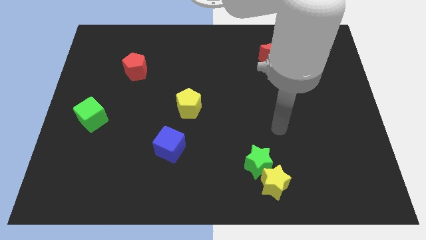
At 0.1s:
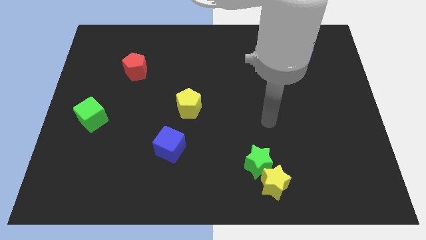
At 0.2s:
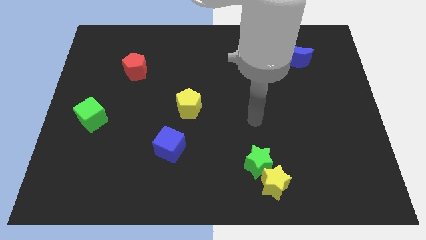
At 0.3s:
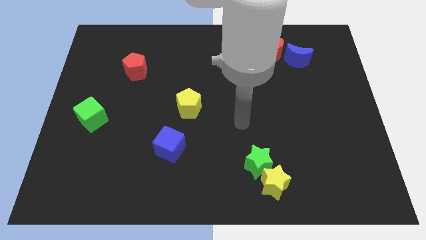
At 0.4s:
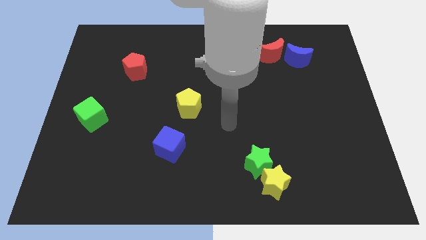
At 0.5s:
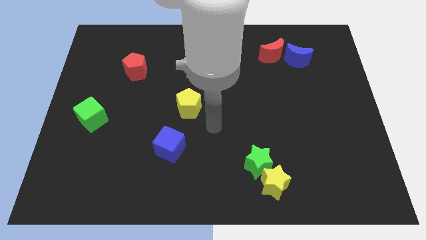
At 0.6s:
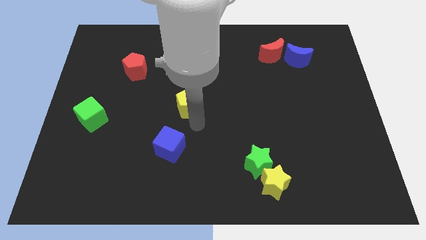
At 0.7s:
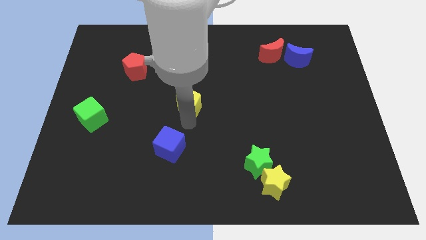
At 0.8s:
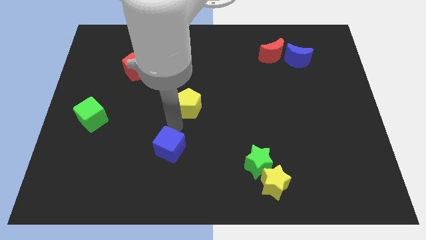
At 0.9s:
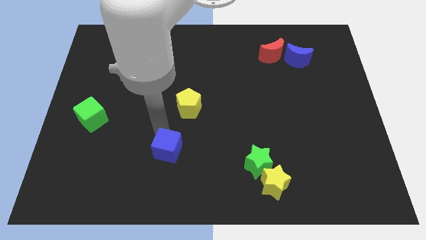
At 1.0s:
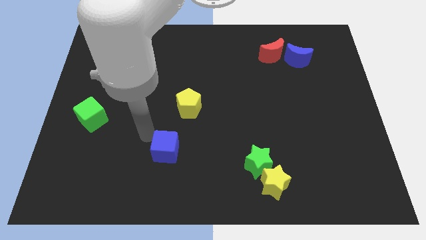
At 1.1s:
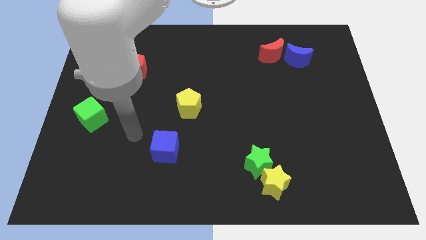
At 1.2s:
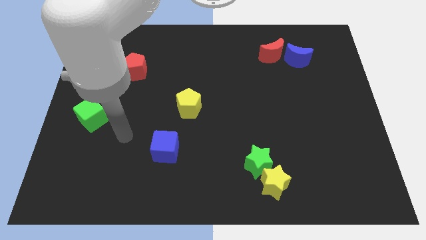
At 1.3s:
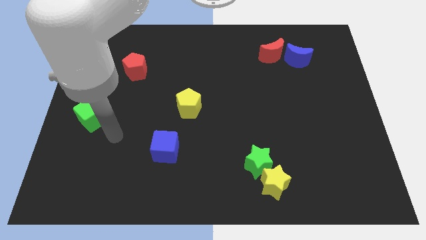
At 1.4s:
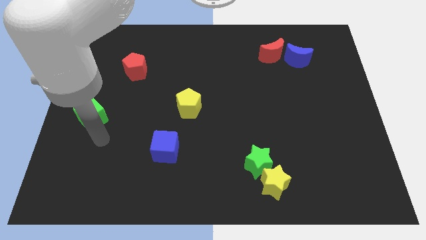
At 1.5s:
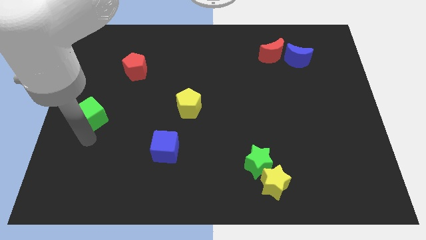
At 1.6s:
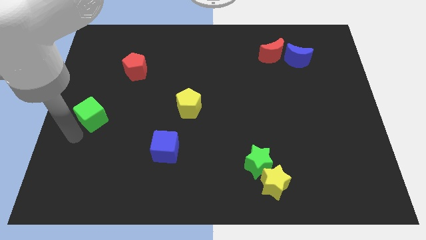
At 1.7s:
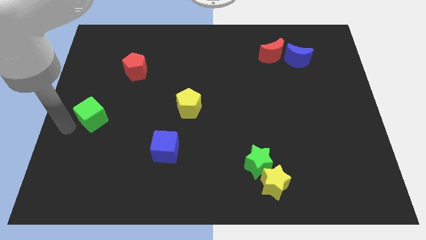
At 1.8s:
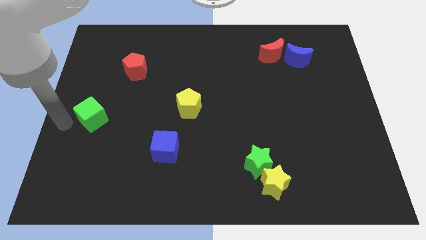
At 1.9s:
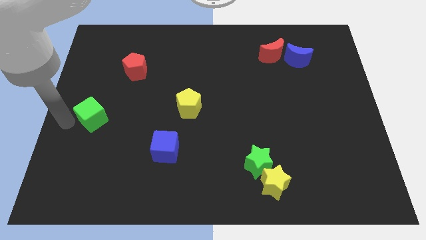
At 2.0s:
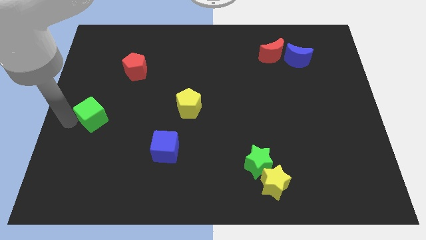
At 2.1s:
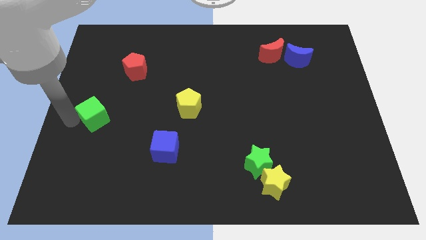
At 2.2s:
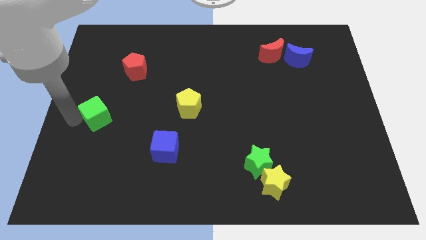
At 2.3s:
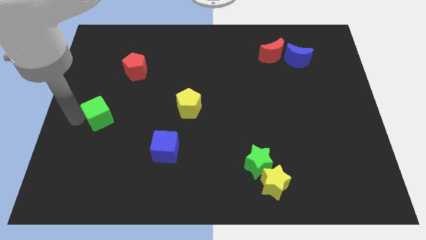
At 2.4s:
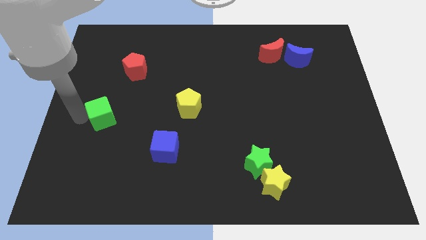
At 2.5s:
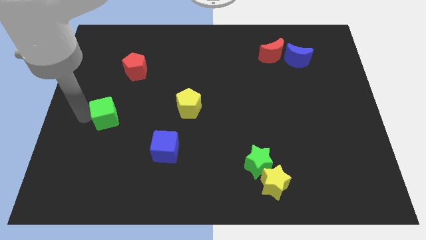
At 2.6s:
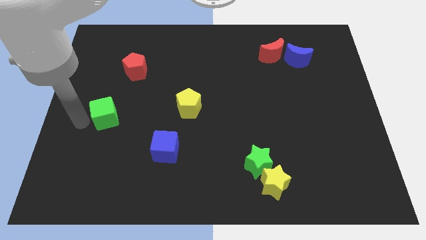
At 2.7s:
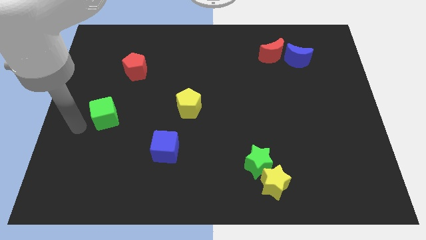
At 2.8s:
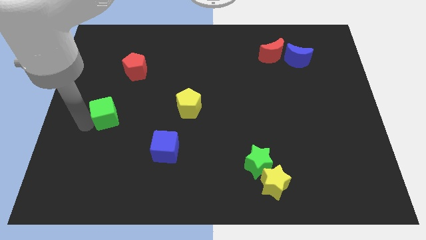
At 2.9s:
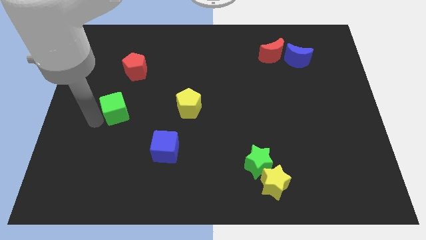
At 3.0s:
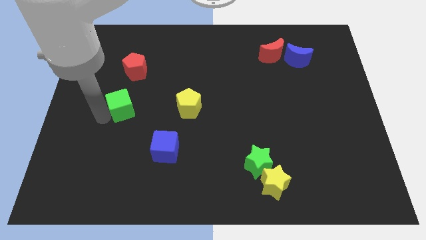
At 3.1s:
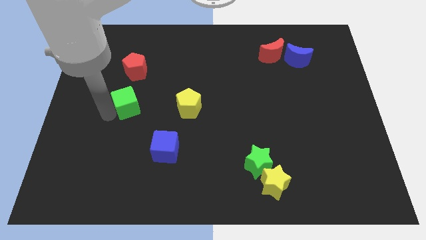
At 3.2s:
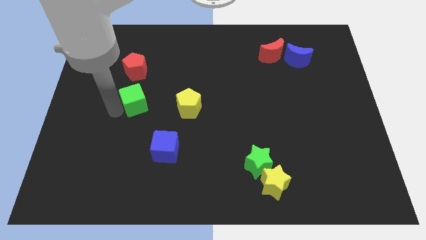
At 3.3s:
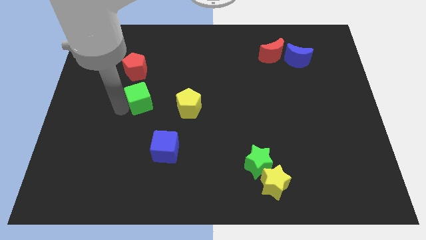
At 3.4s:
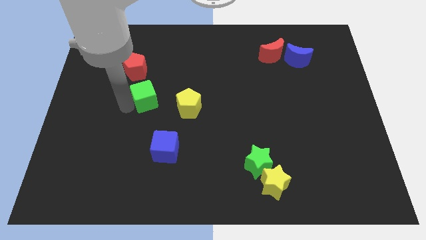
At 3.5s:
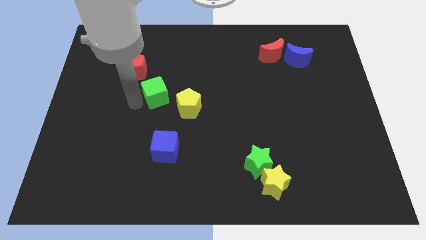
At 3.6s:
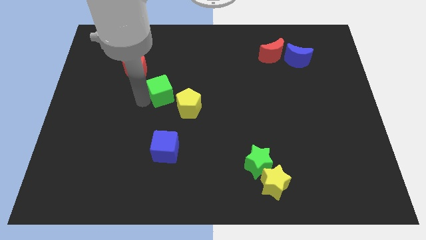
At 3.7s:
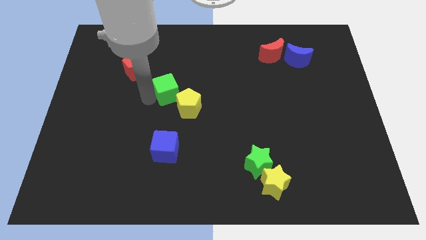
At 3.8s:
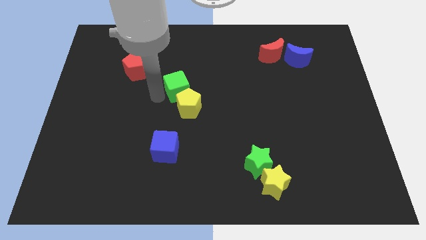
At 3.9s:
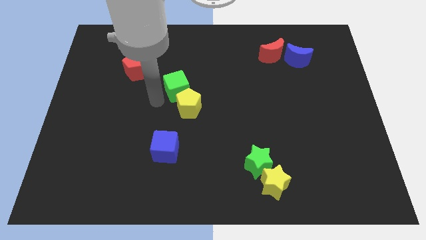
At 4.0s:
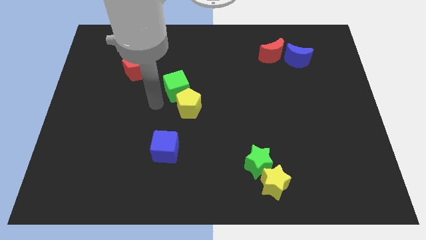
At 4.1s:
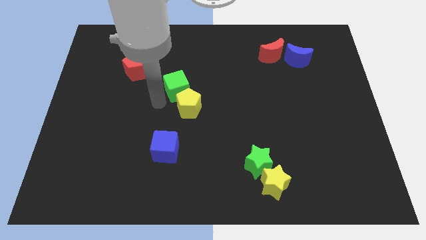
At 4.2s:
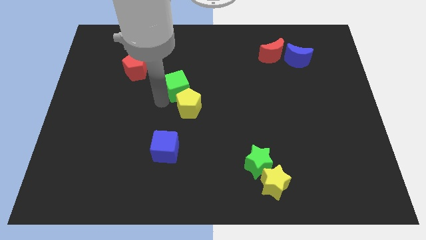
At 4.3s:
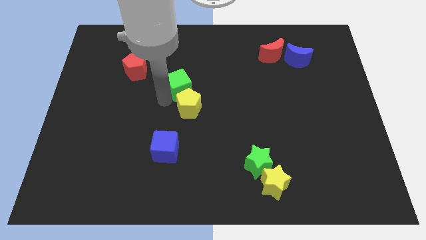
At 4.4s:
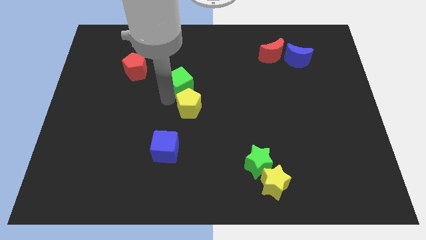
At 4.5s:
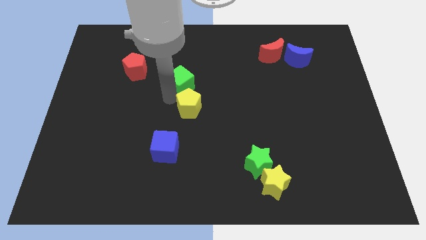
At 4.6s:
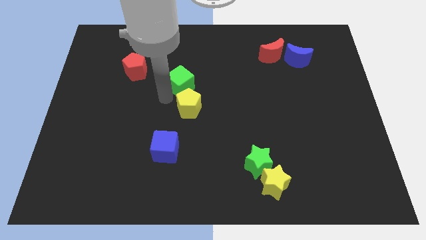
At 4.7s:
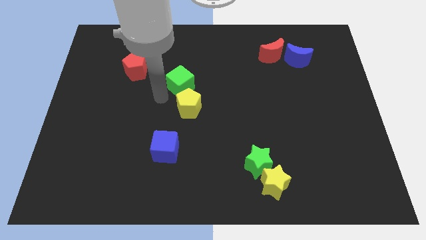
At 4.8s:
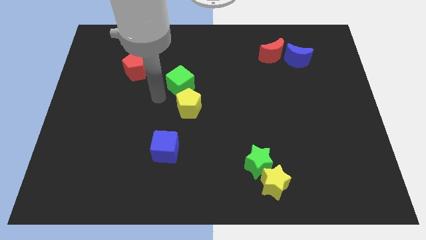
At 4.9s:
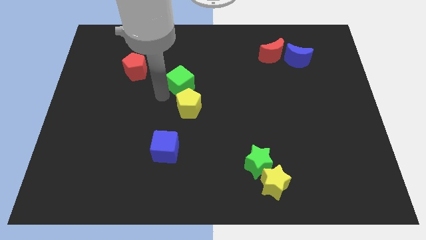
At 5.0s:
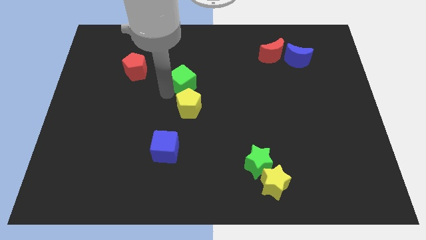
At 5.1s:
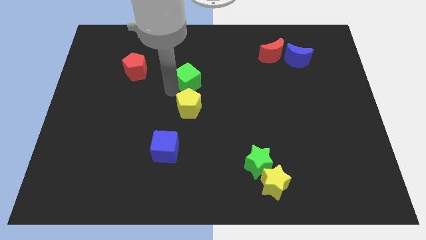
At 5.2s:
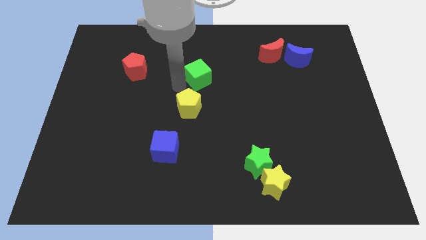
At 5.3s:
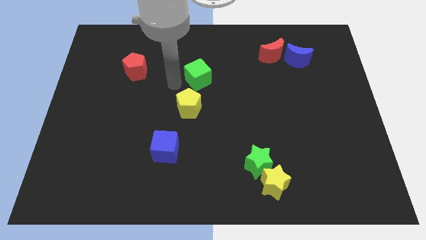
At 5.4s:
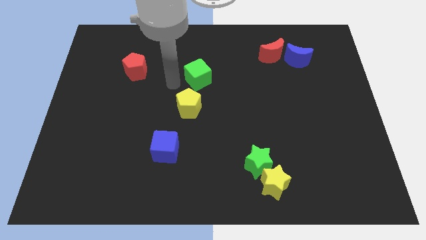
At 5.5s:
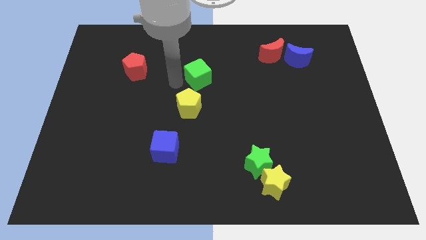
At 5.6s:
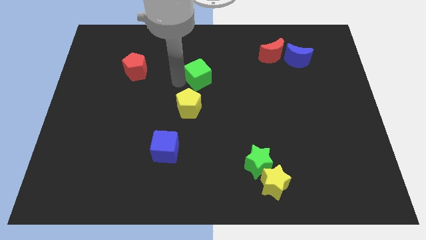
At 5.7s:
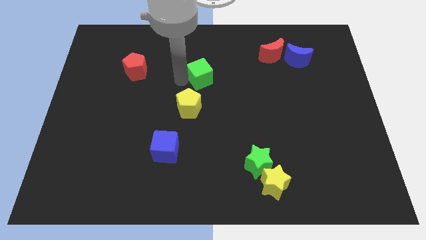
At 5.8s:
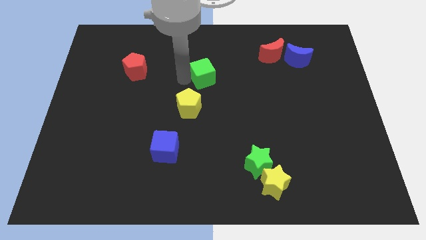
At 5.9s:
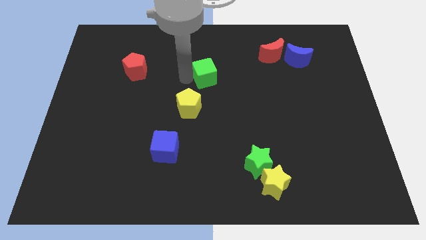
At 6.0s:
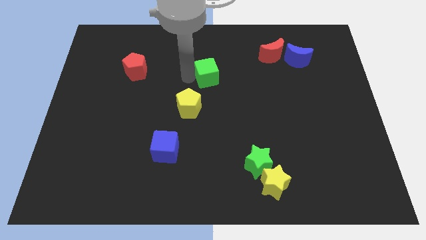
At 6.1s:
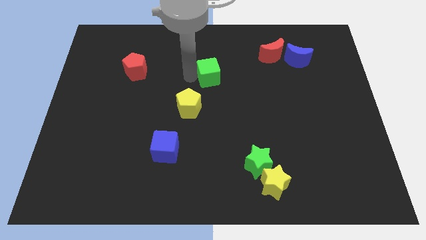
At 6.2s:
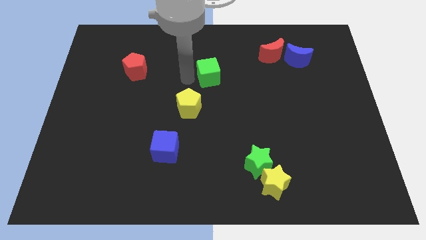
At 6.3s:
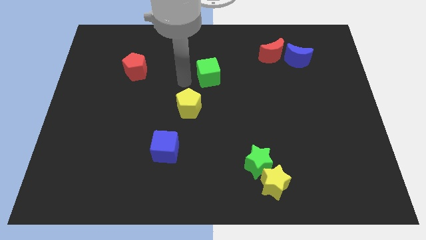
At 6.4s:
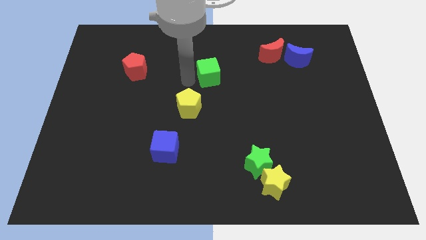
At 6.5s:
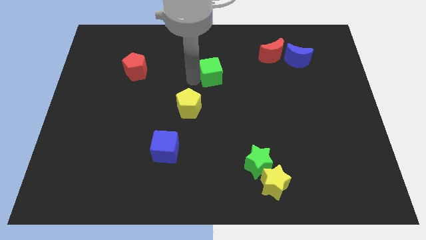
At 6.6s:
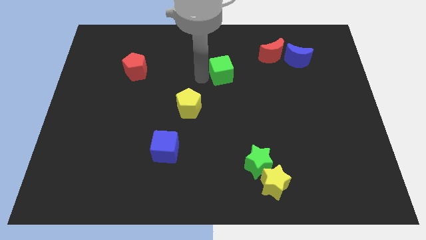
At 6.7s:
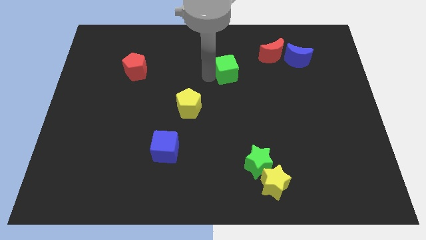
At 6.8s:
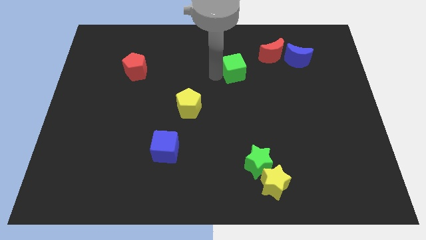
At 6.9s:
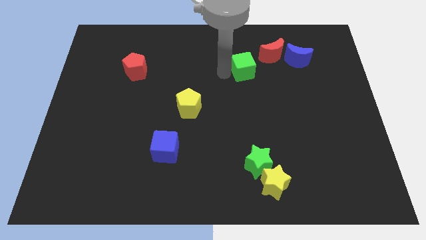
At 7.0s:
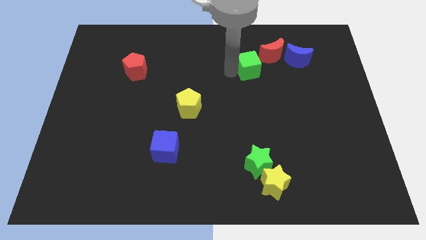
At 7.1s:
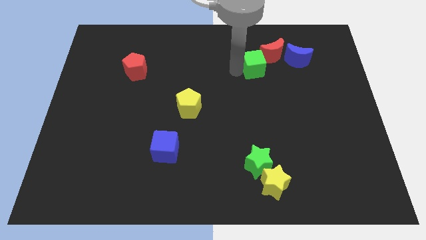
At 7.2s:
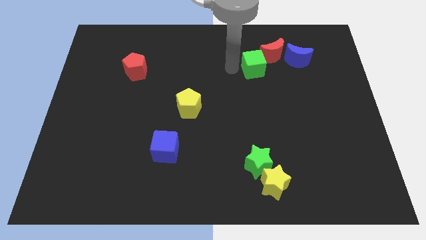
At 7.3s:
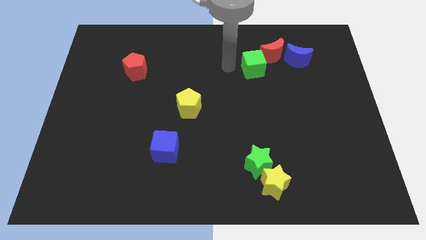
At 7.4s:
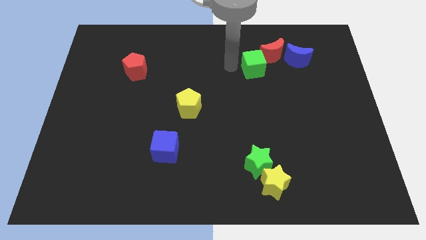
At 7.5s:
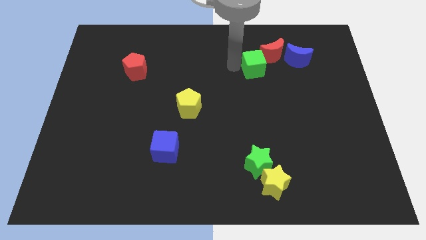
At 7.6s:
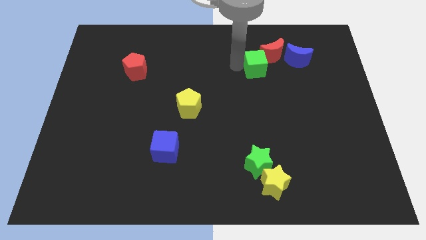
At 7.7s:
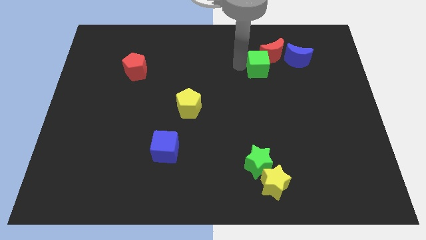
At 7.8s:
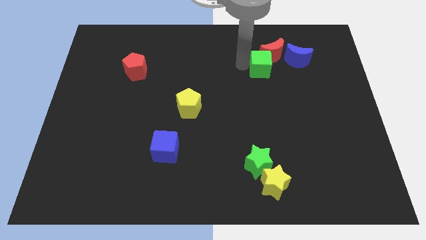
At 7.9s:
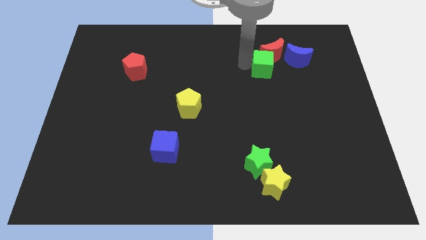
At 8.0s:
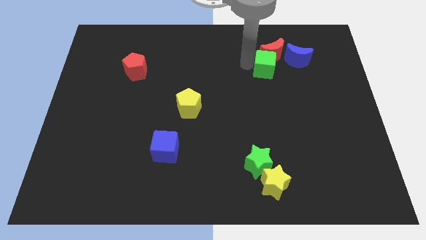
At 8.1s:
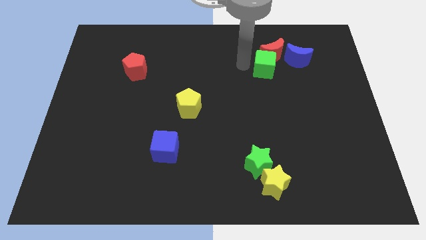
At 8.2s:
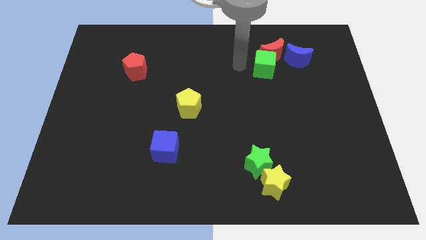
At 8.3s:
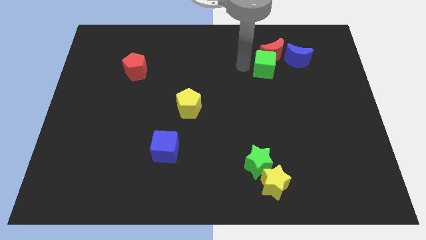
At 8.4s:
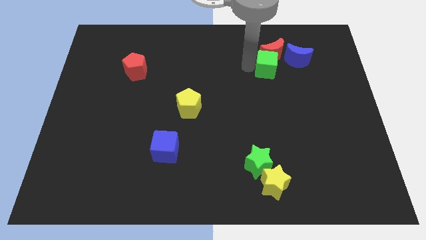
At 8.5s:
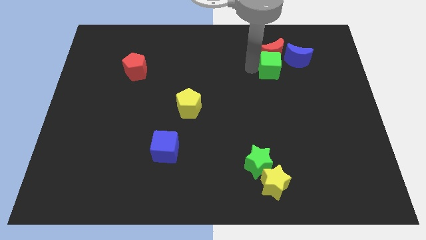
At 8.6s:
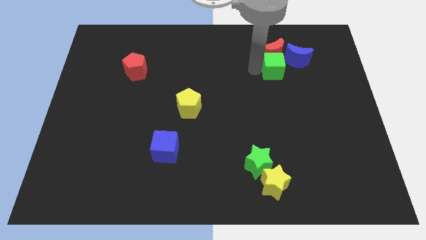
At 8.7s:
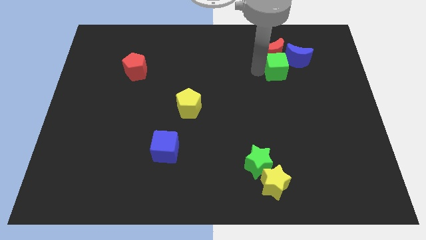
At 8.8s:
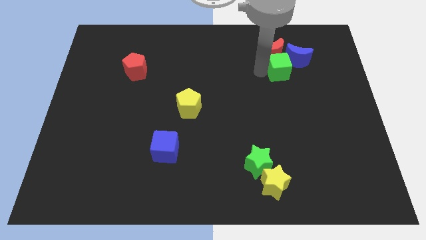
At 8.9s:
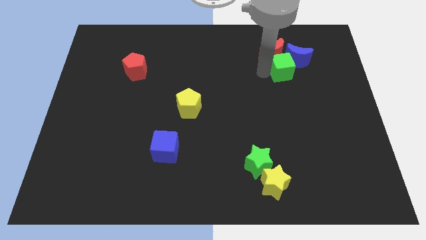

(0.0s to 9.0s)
push the green cube to the blue moon
